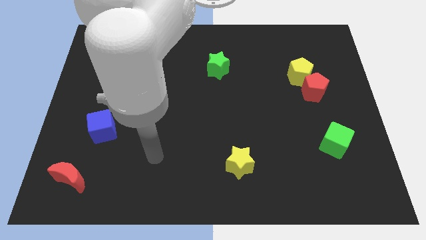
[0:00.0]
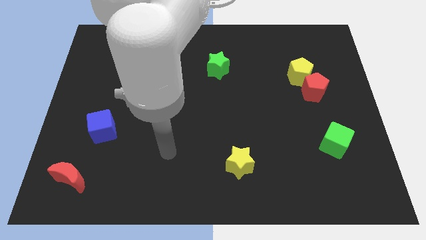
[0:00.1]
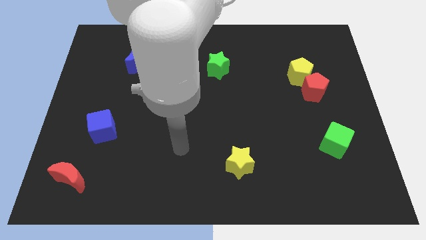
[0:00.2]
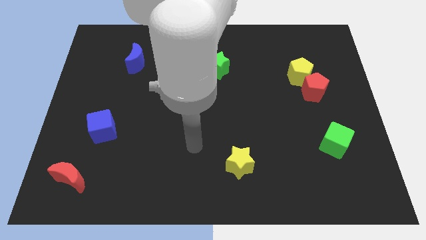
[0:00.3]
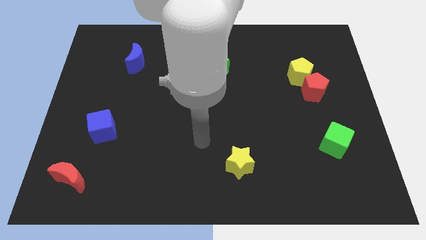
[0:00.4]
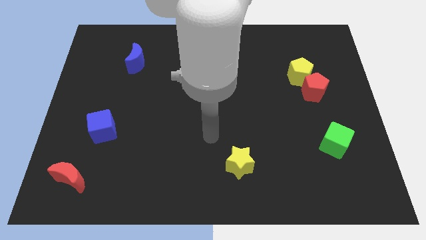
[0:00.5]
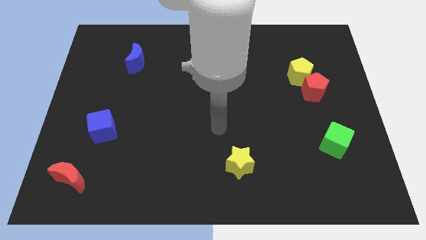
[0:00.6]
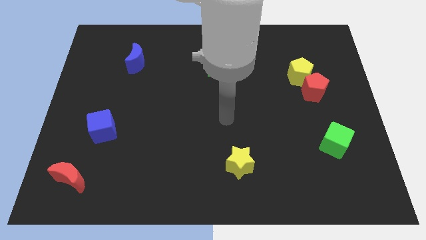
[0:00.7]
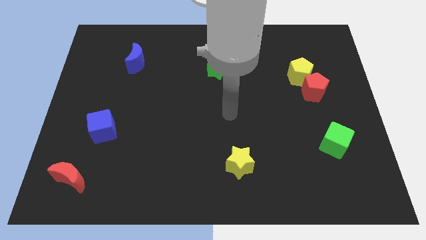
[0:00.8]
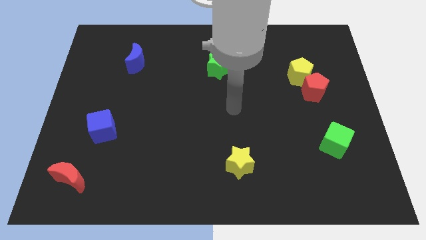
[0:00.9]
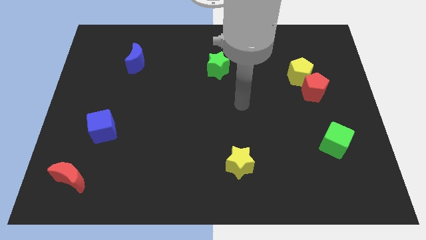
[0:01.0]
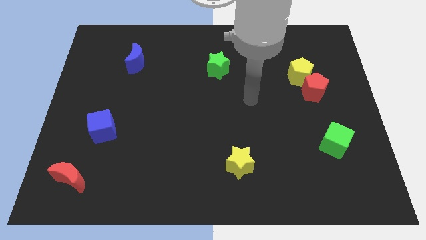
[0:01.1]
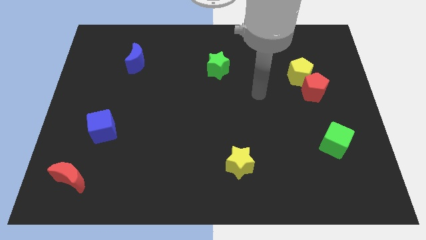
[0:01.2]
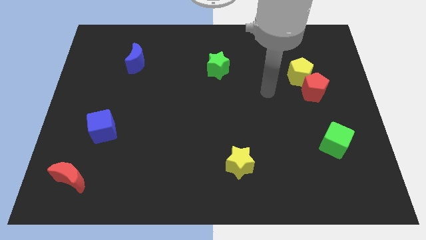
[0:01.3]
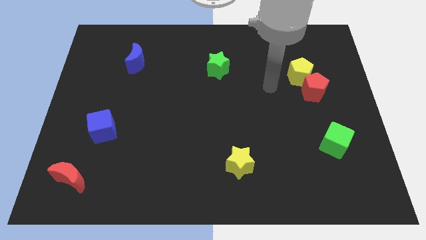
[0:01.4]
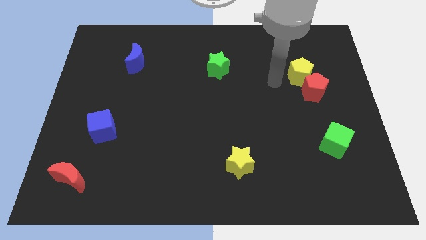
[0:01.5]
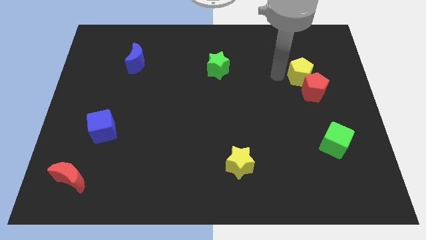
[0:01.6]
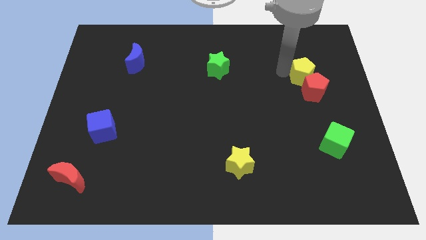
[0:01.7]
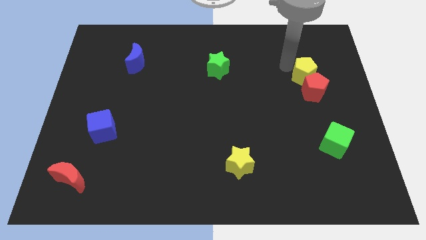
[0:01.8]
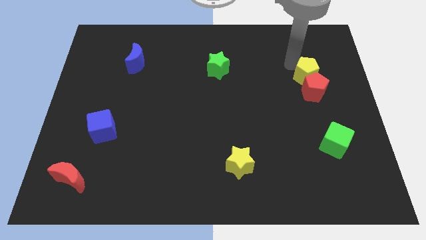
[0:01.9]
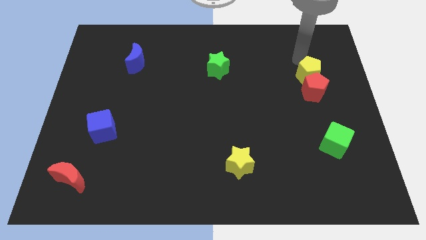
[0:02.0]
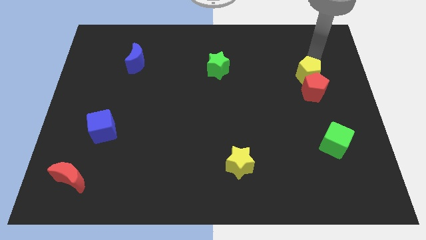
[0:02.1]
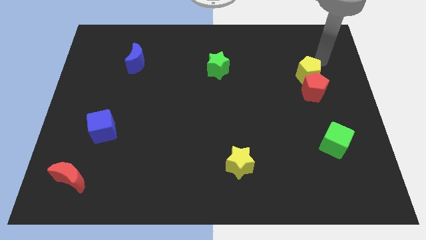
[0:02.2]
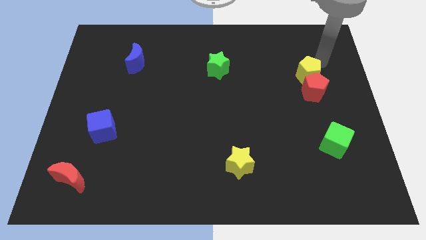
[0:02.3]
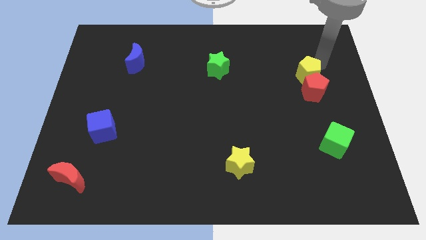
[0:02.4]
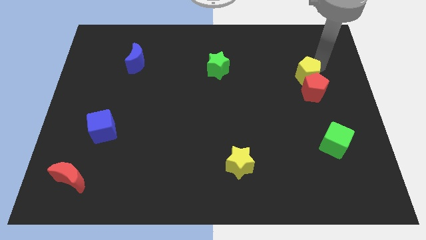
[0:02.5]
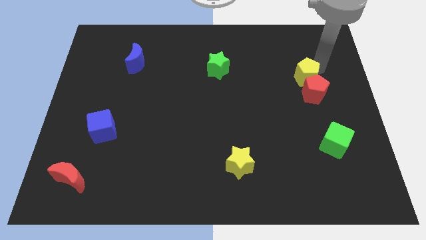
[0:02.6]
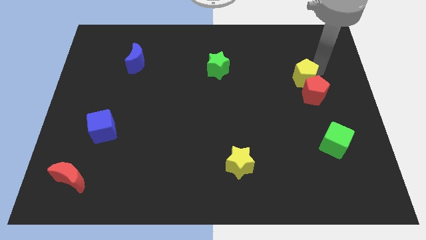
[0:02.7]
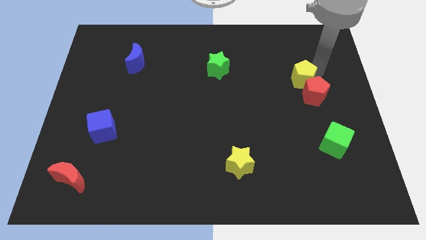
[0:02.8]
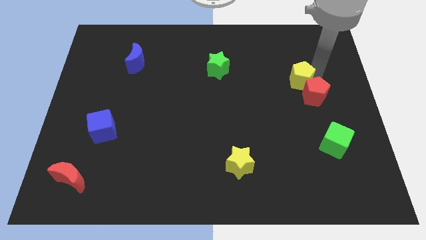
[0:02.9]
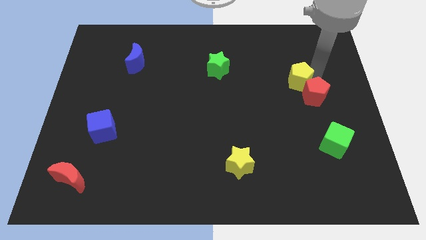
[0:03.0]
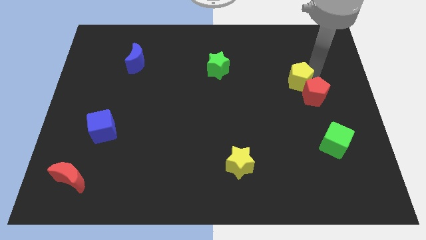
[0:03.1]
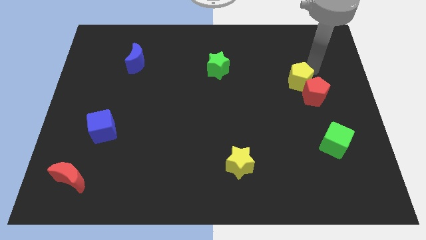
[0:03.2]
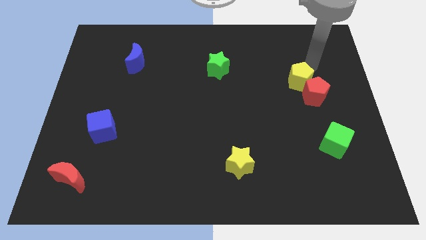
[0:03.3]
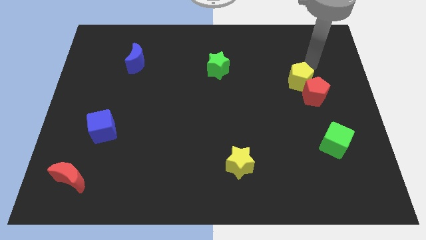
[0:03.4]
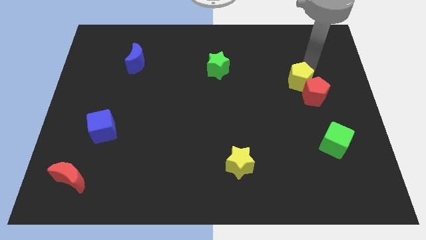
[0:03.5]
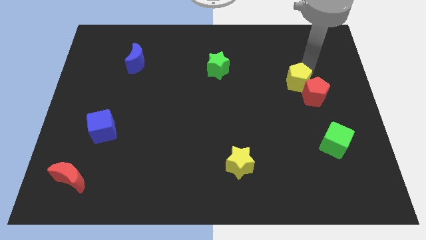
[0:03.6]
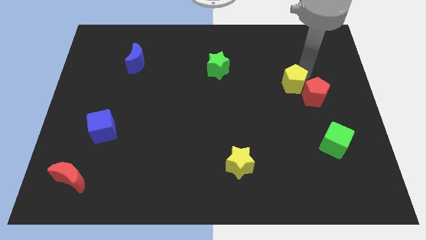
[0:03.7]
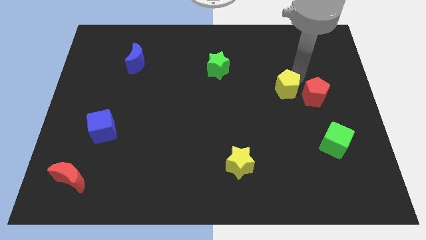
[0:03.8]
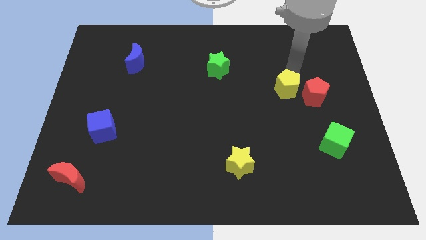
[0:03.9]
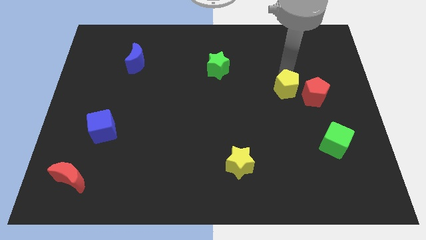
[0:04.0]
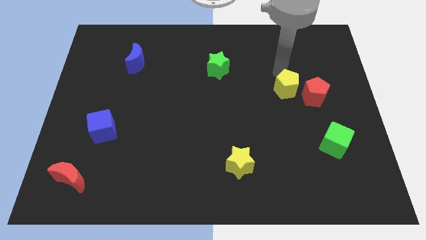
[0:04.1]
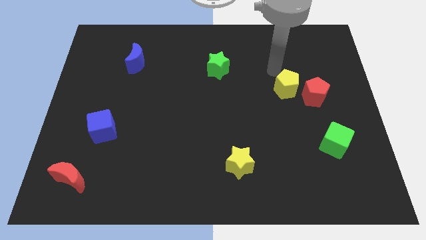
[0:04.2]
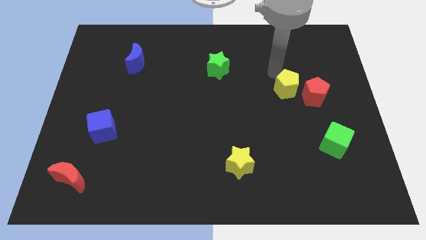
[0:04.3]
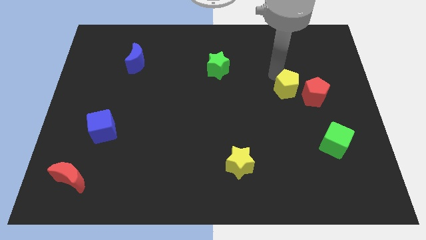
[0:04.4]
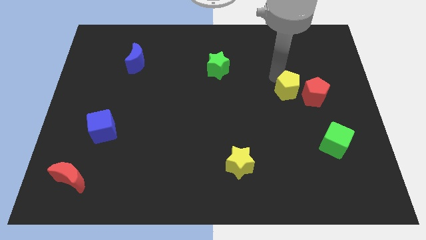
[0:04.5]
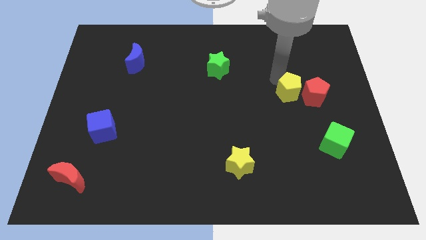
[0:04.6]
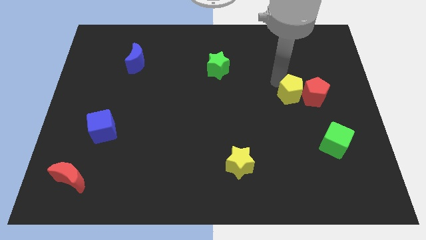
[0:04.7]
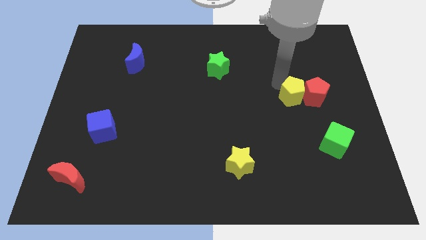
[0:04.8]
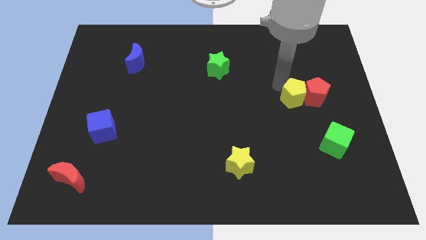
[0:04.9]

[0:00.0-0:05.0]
slide the yellow pentagon downwards slightly

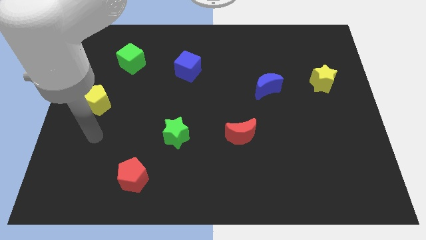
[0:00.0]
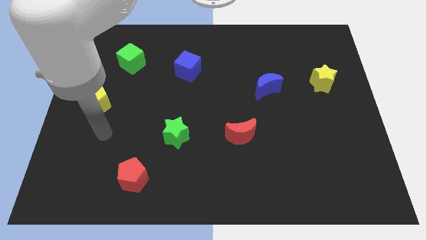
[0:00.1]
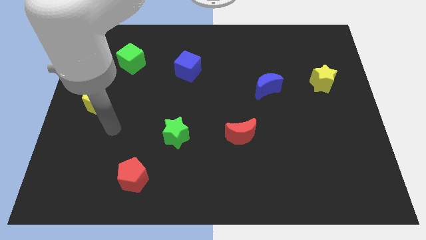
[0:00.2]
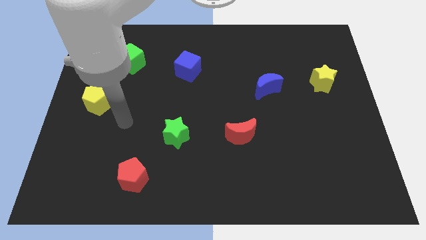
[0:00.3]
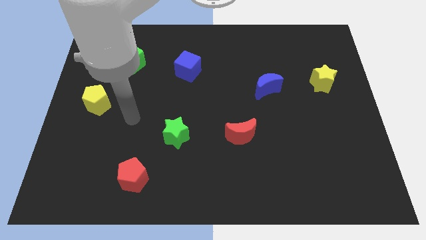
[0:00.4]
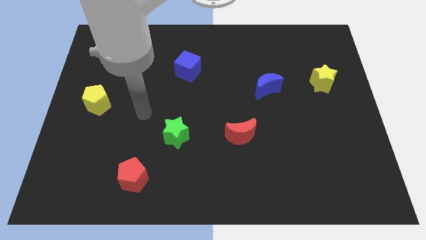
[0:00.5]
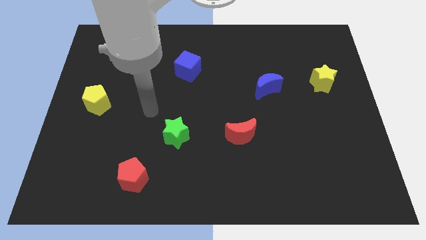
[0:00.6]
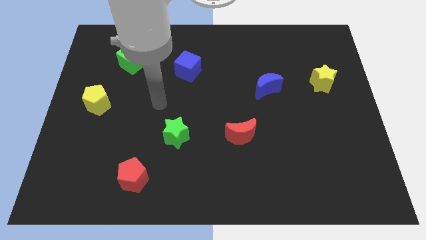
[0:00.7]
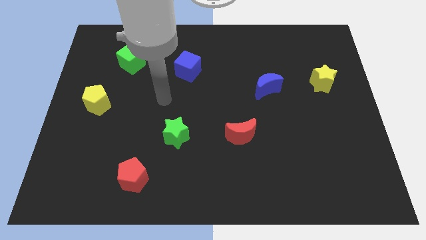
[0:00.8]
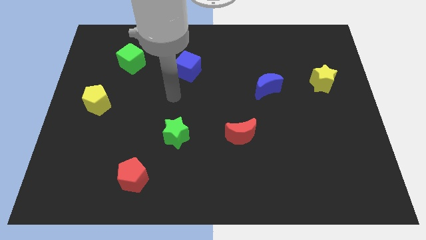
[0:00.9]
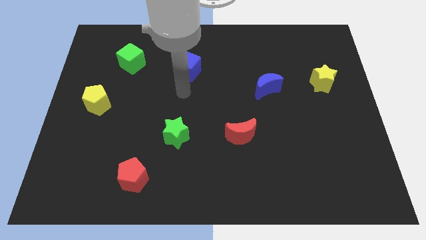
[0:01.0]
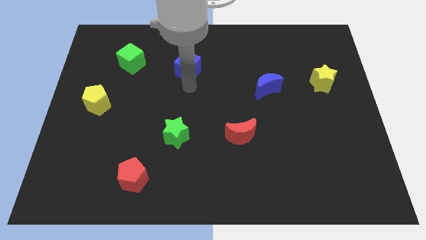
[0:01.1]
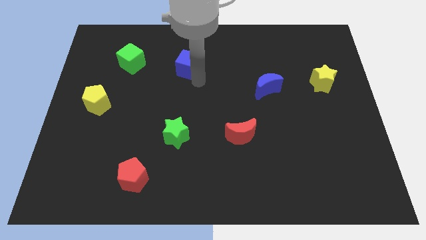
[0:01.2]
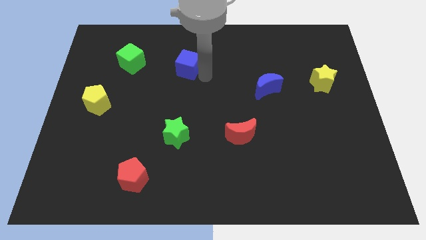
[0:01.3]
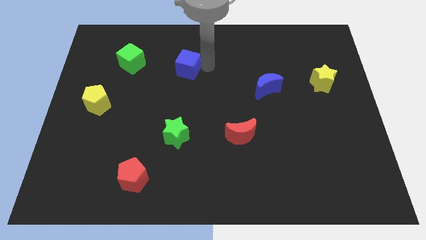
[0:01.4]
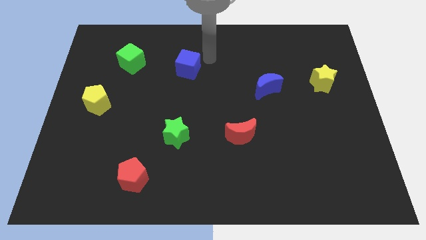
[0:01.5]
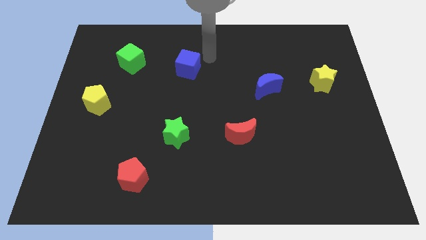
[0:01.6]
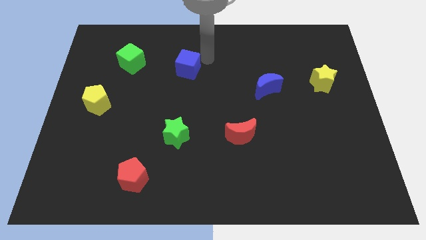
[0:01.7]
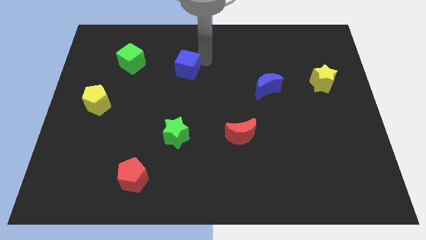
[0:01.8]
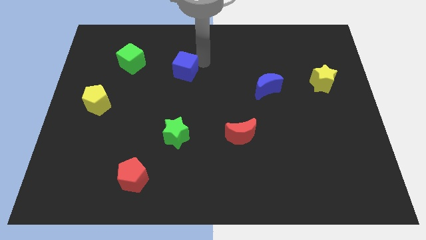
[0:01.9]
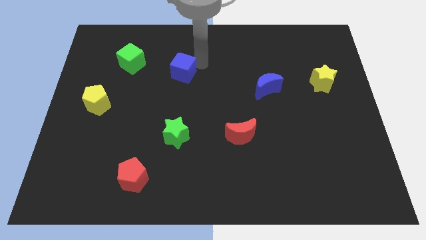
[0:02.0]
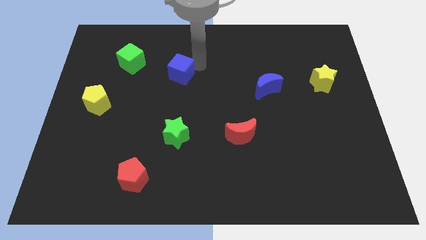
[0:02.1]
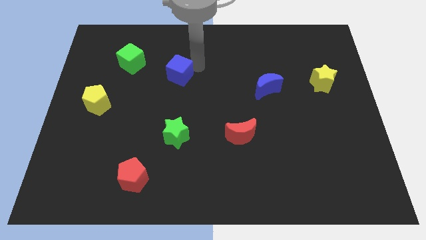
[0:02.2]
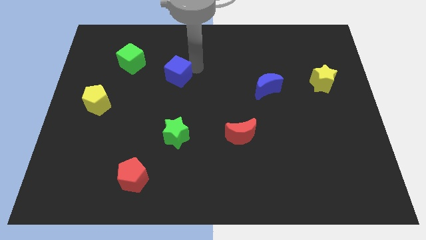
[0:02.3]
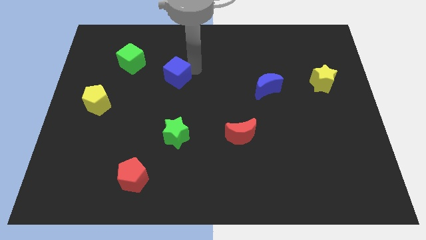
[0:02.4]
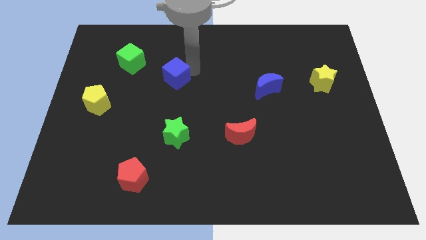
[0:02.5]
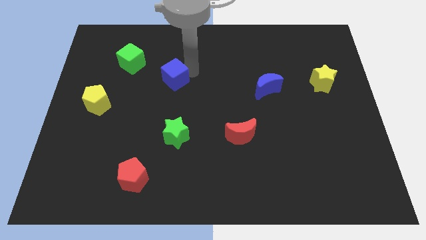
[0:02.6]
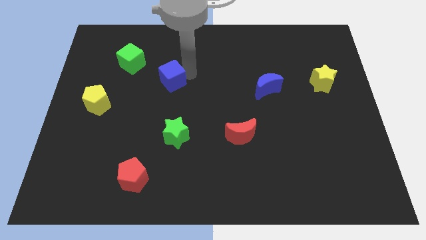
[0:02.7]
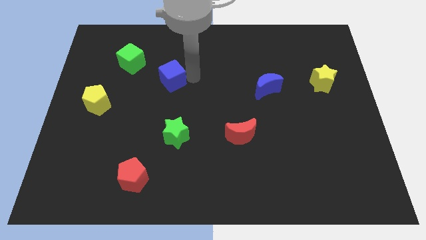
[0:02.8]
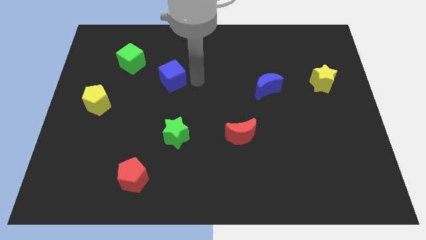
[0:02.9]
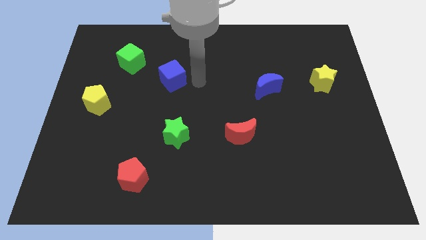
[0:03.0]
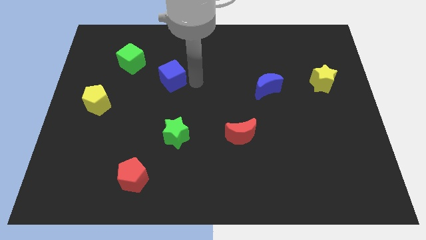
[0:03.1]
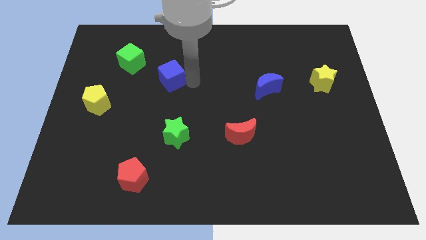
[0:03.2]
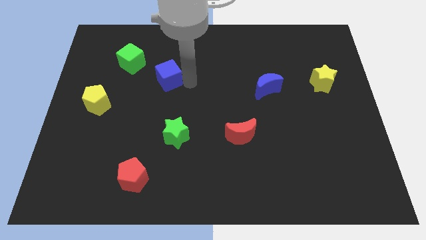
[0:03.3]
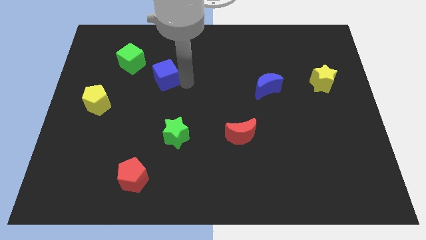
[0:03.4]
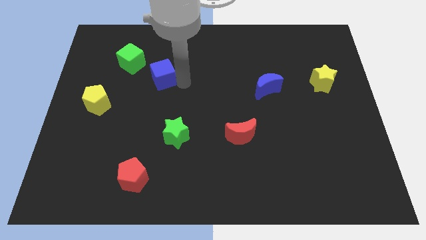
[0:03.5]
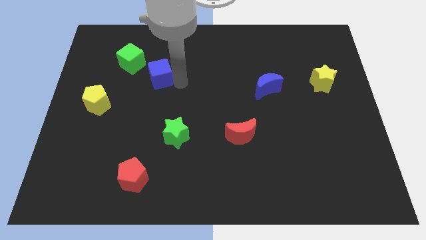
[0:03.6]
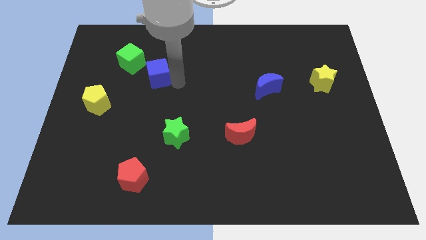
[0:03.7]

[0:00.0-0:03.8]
push the blue cube left a bit
